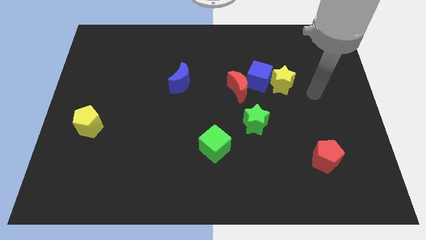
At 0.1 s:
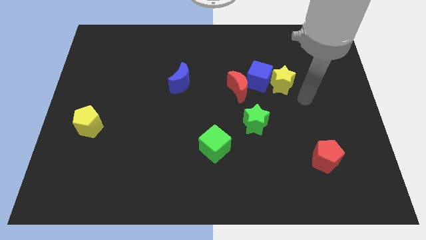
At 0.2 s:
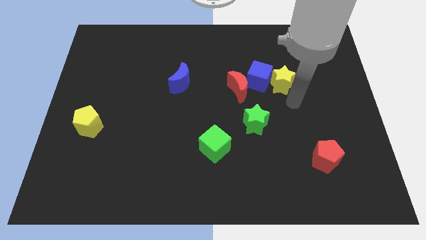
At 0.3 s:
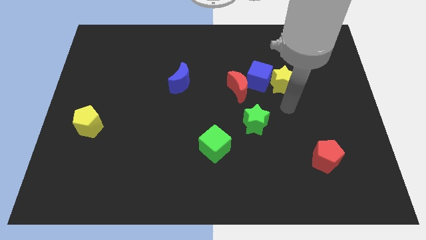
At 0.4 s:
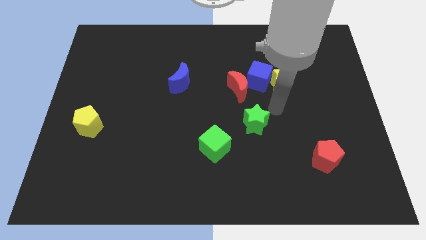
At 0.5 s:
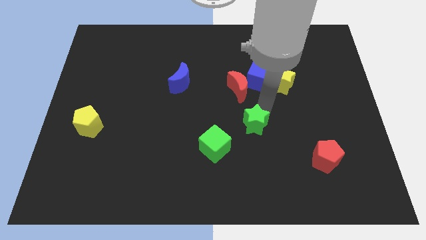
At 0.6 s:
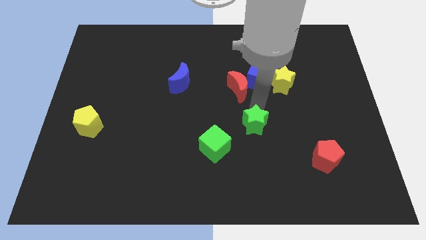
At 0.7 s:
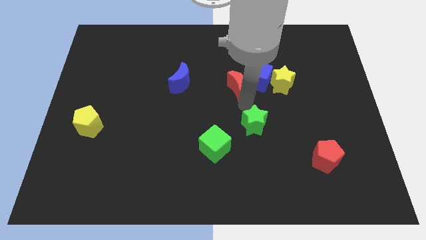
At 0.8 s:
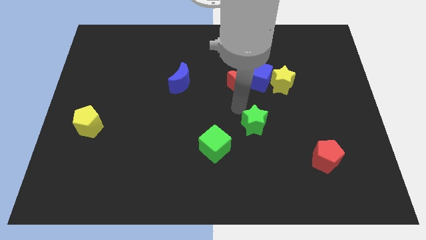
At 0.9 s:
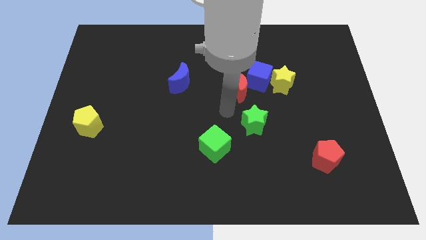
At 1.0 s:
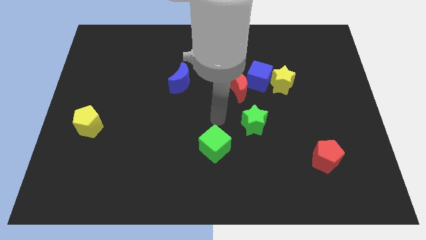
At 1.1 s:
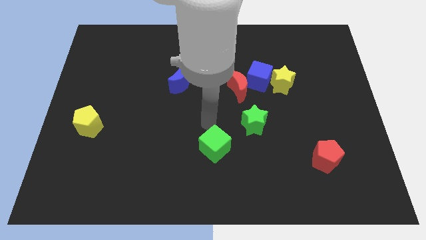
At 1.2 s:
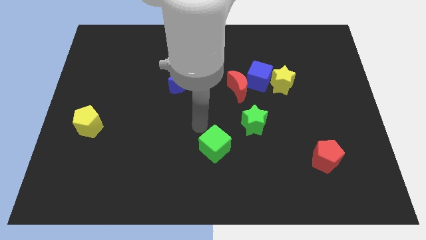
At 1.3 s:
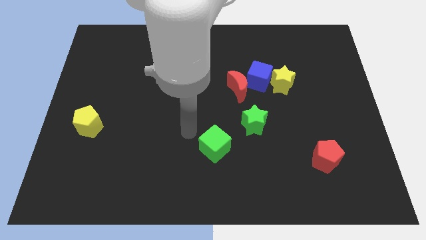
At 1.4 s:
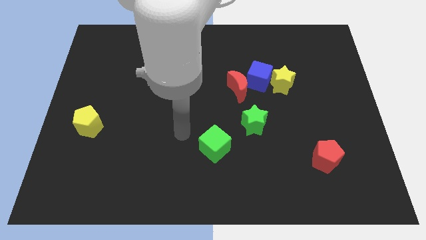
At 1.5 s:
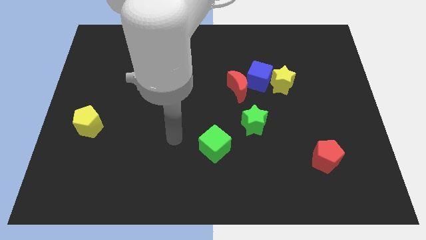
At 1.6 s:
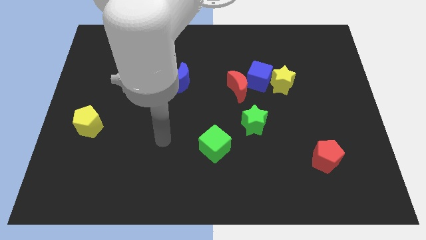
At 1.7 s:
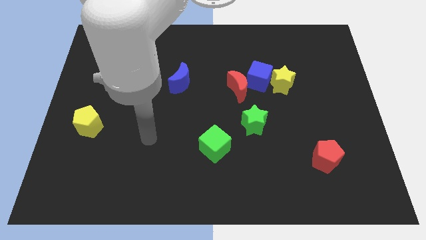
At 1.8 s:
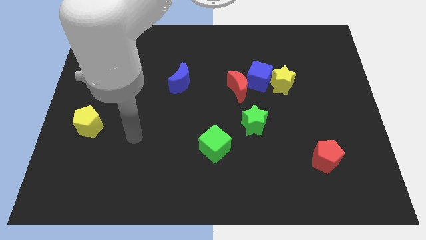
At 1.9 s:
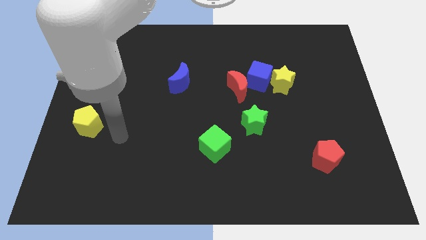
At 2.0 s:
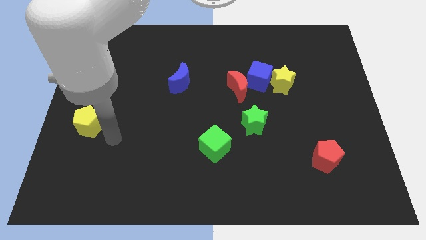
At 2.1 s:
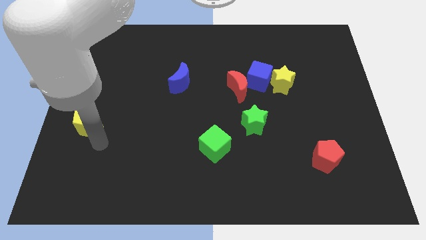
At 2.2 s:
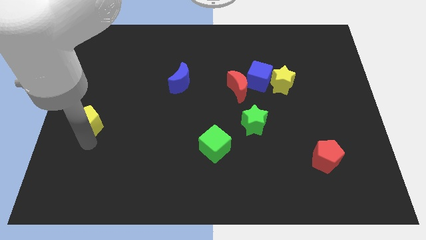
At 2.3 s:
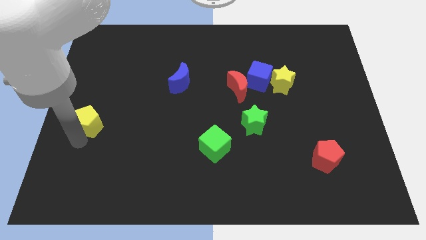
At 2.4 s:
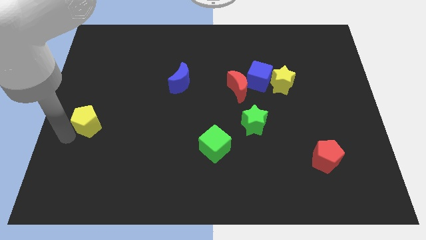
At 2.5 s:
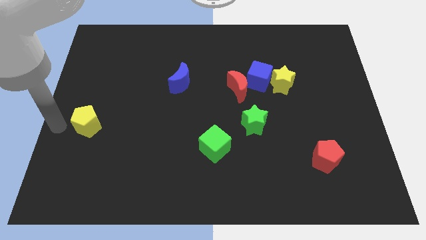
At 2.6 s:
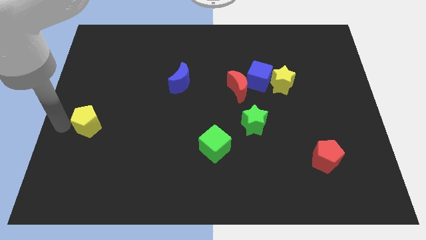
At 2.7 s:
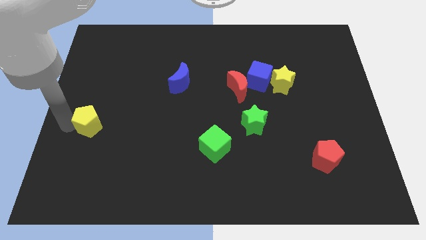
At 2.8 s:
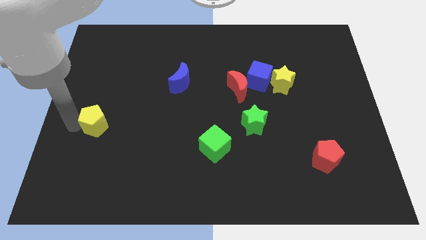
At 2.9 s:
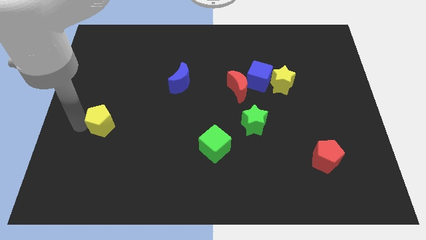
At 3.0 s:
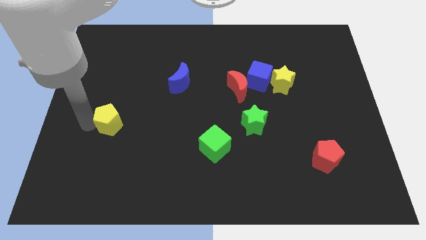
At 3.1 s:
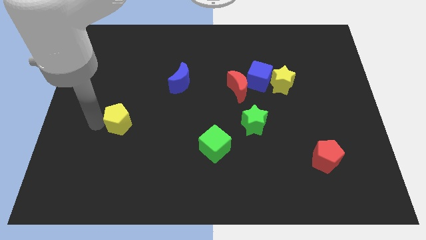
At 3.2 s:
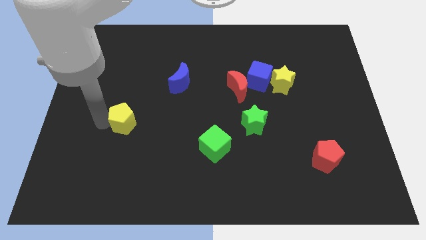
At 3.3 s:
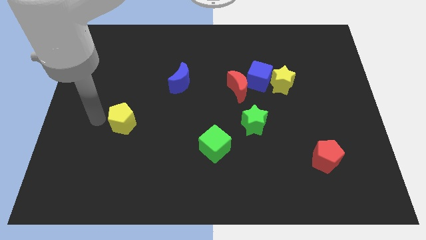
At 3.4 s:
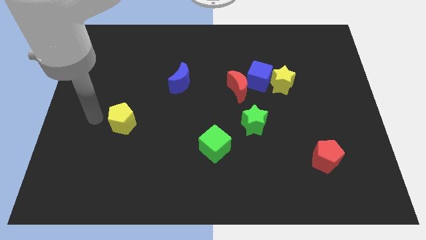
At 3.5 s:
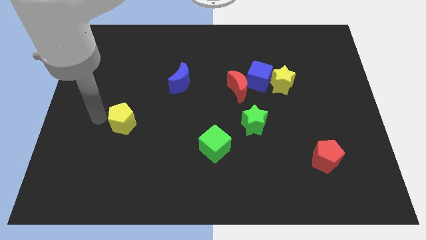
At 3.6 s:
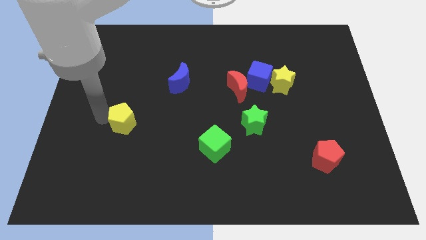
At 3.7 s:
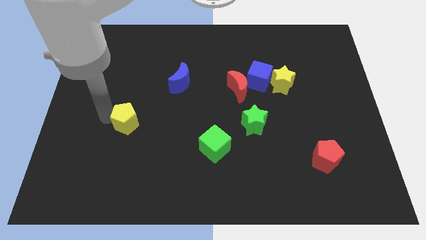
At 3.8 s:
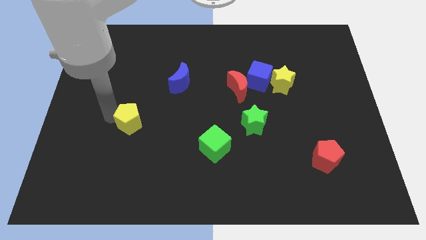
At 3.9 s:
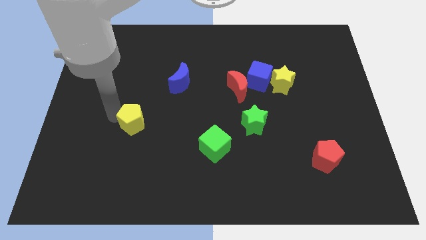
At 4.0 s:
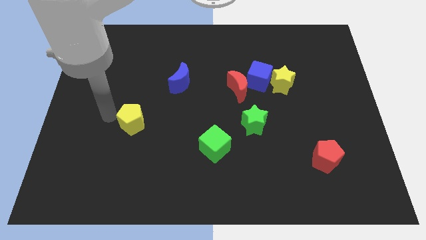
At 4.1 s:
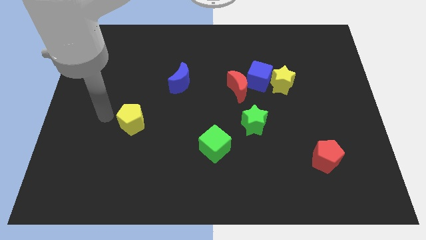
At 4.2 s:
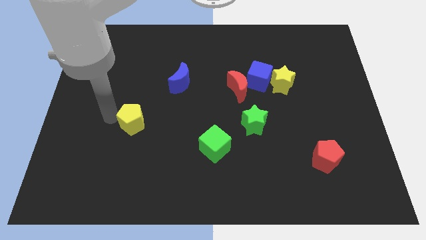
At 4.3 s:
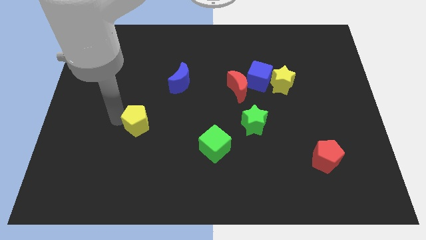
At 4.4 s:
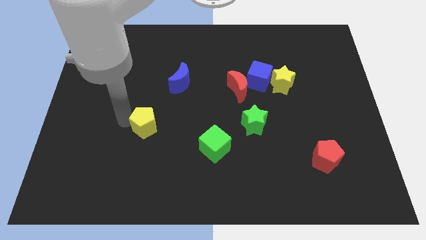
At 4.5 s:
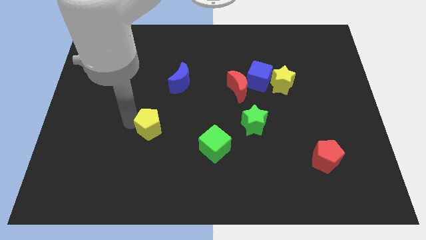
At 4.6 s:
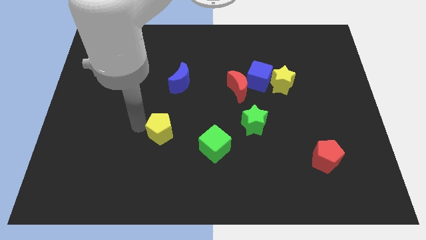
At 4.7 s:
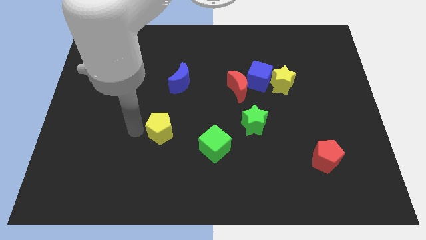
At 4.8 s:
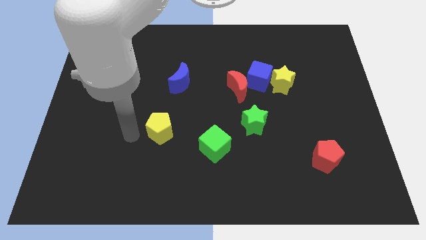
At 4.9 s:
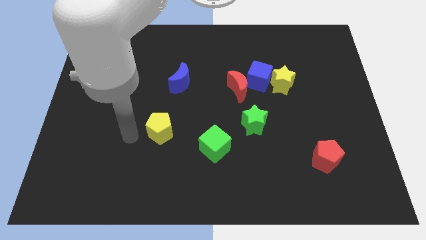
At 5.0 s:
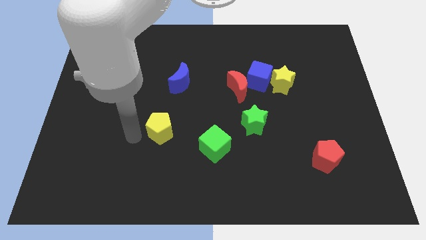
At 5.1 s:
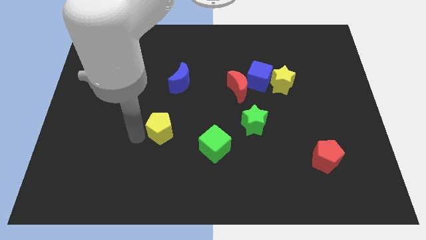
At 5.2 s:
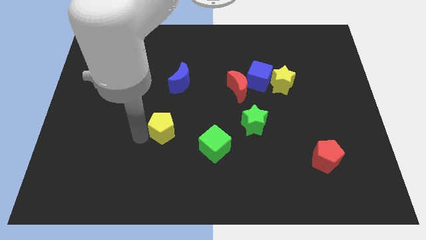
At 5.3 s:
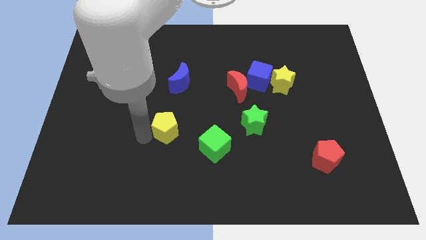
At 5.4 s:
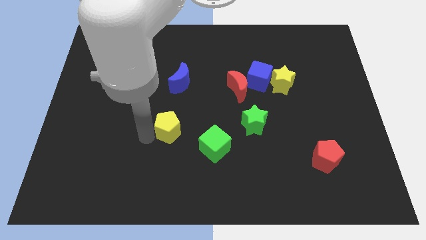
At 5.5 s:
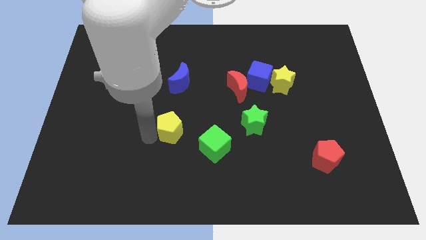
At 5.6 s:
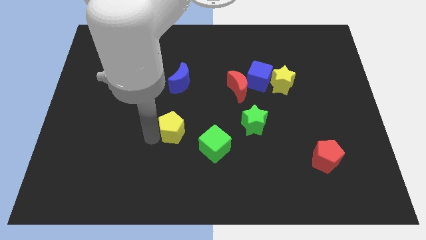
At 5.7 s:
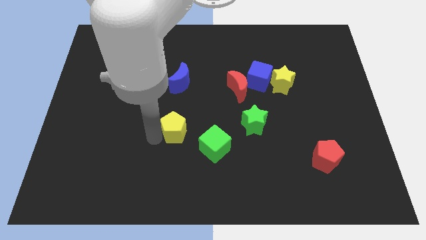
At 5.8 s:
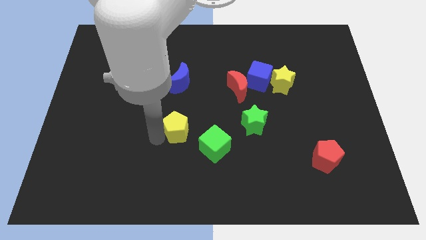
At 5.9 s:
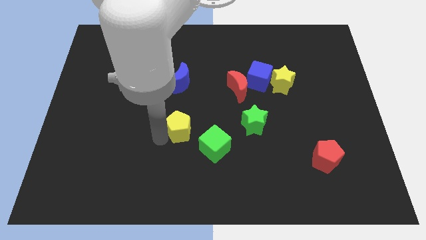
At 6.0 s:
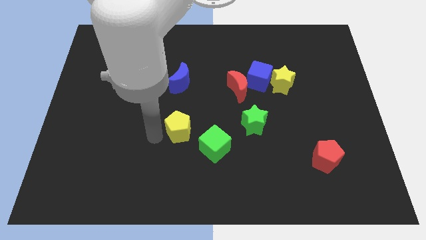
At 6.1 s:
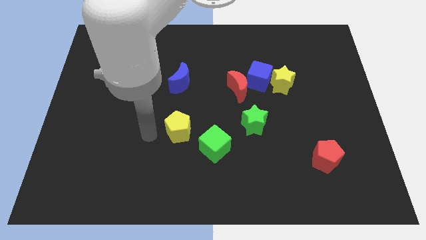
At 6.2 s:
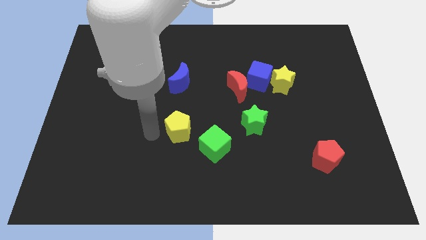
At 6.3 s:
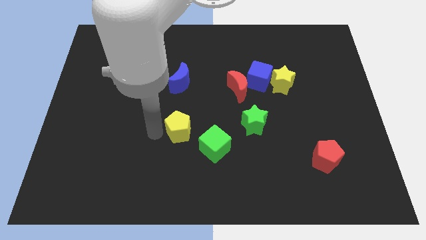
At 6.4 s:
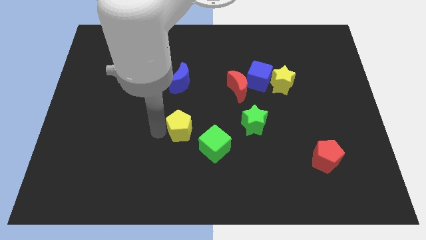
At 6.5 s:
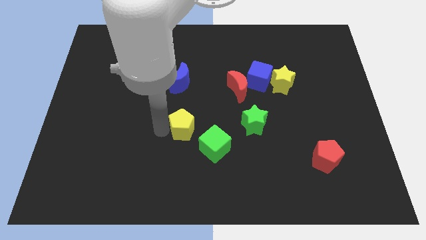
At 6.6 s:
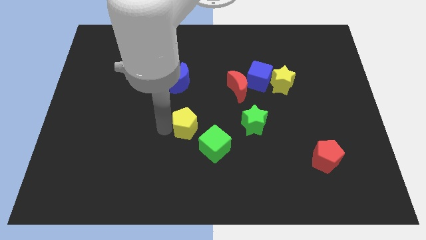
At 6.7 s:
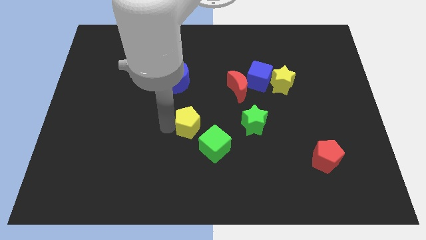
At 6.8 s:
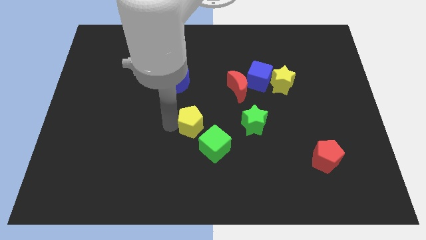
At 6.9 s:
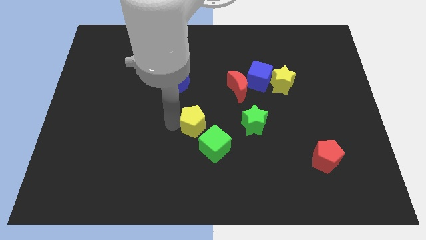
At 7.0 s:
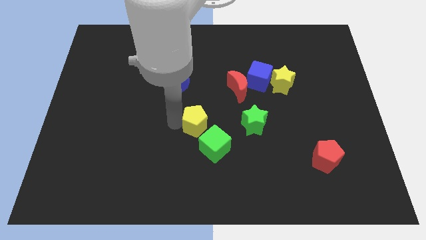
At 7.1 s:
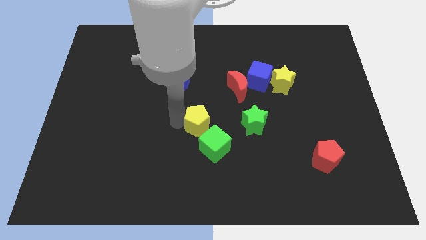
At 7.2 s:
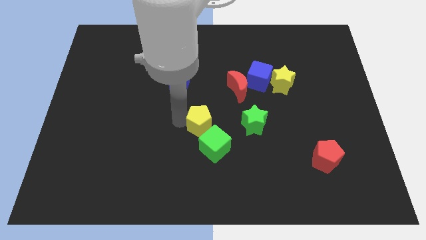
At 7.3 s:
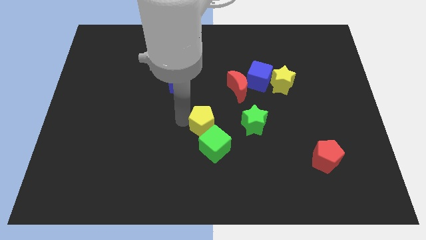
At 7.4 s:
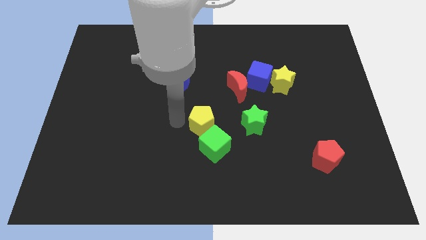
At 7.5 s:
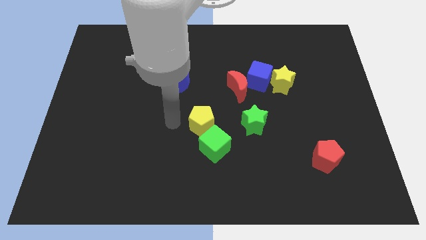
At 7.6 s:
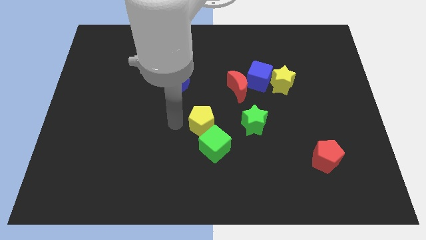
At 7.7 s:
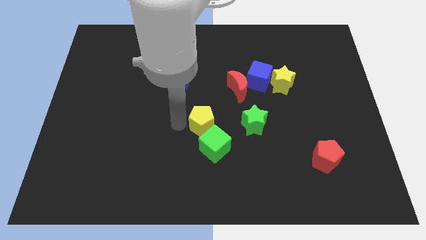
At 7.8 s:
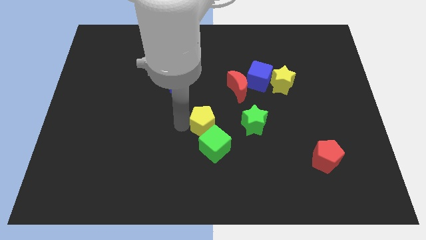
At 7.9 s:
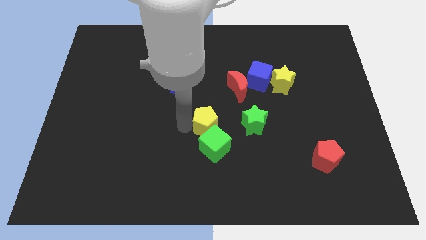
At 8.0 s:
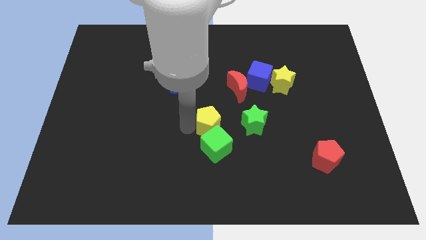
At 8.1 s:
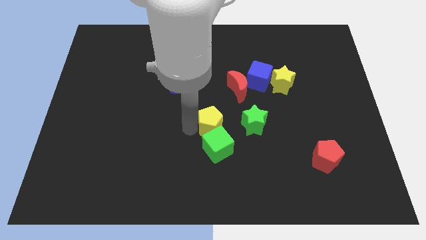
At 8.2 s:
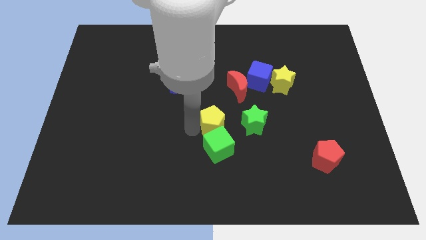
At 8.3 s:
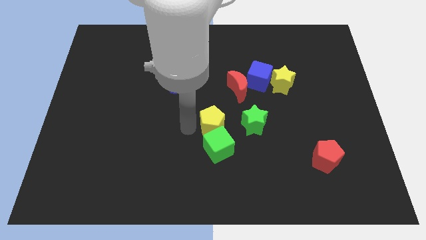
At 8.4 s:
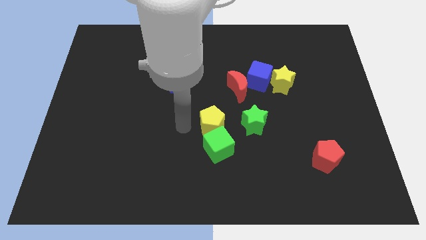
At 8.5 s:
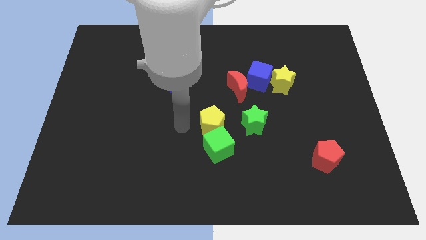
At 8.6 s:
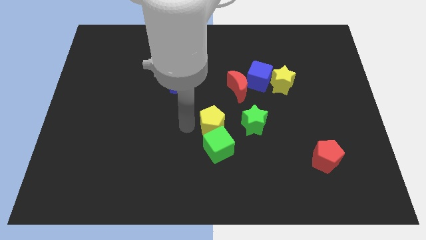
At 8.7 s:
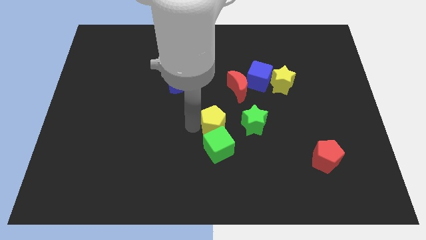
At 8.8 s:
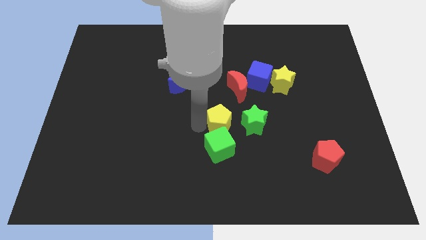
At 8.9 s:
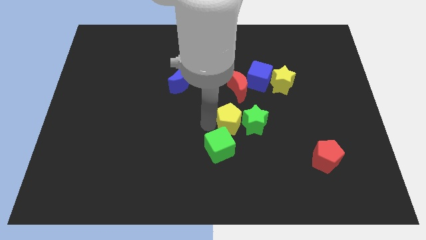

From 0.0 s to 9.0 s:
push the yellow pentagon close to the green star
